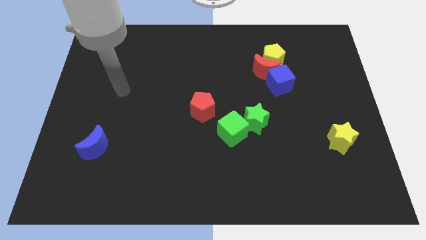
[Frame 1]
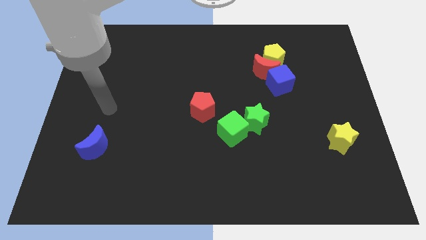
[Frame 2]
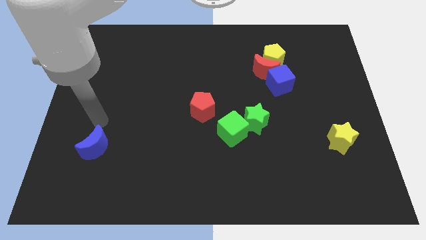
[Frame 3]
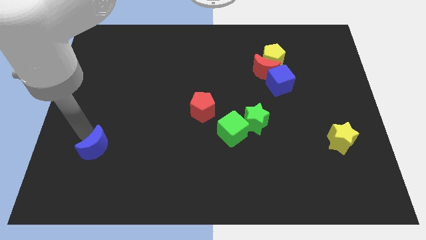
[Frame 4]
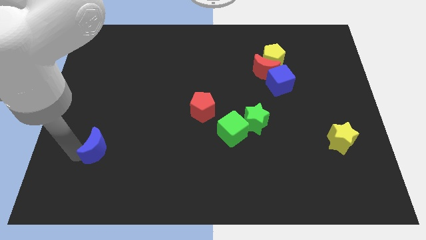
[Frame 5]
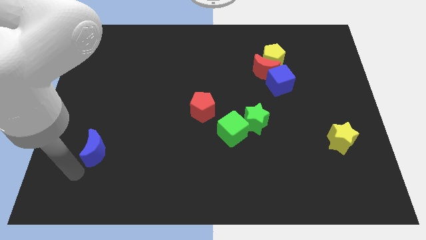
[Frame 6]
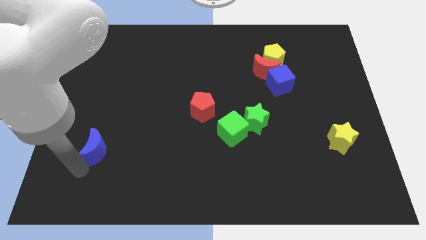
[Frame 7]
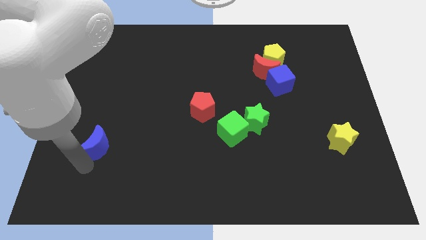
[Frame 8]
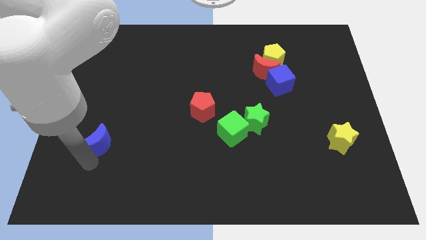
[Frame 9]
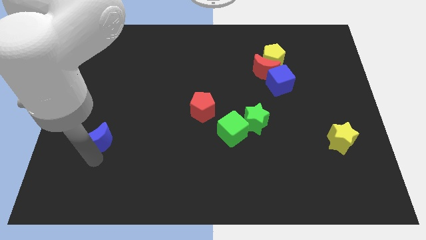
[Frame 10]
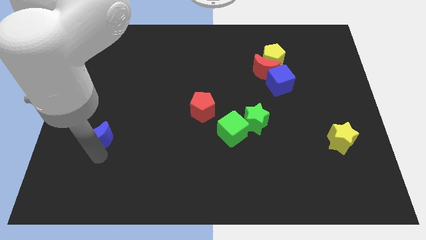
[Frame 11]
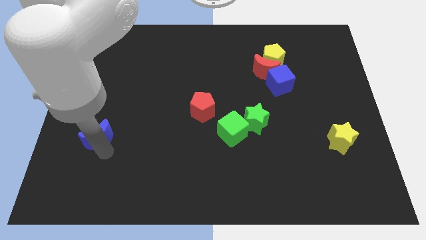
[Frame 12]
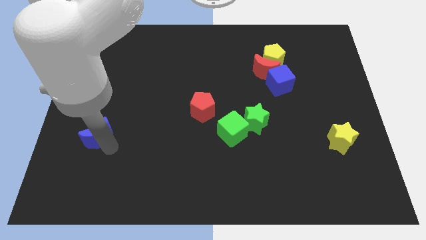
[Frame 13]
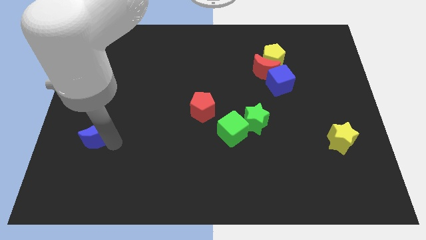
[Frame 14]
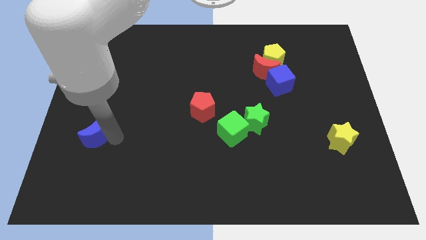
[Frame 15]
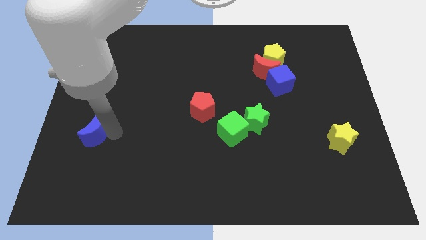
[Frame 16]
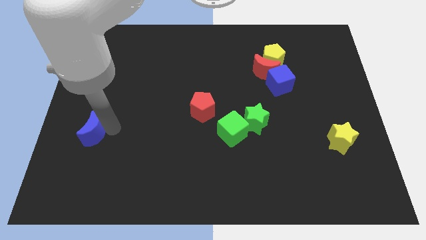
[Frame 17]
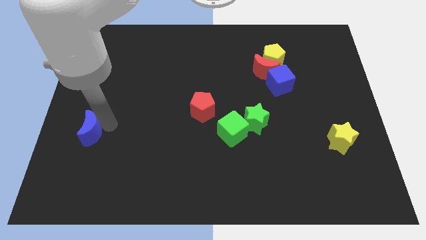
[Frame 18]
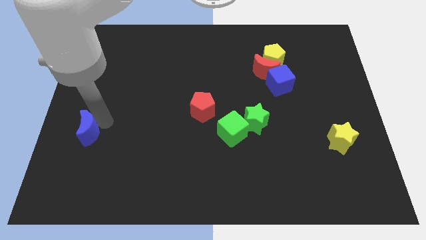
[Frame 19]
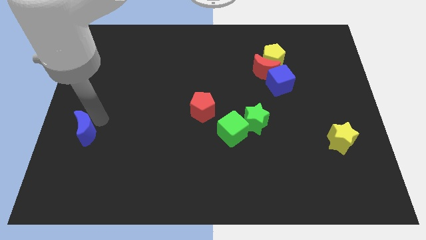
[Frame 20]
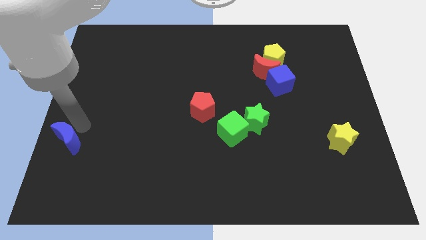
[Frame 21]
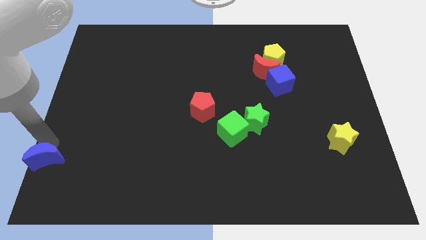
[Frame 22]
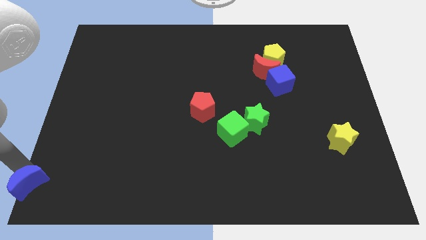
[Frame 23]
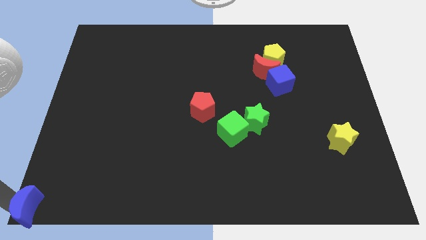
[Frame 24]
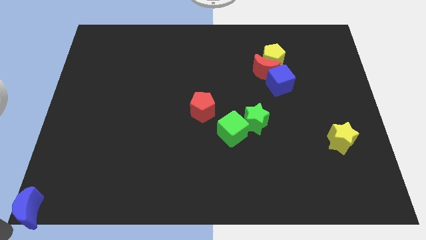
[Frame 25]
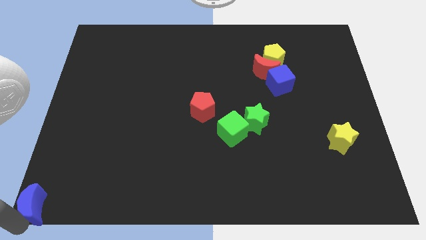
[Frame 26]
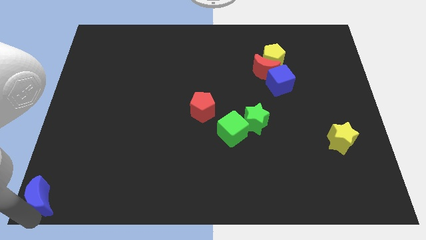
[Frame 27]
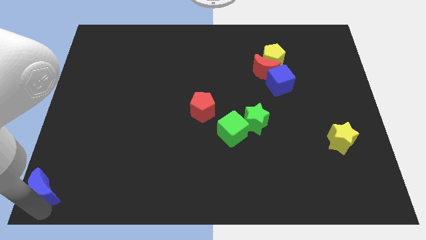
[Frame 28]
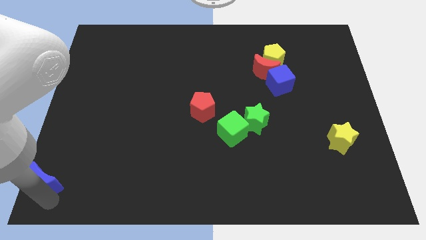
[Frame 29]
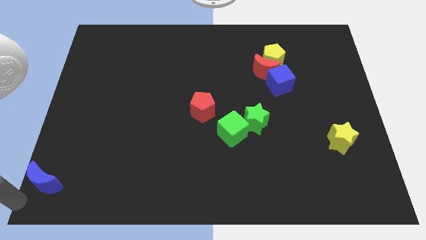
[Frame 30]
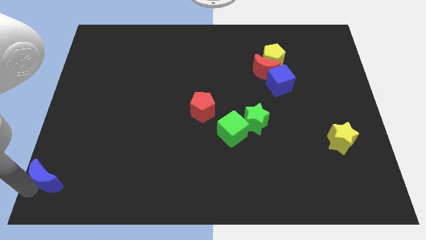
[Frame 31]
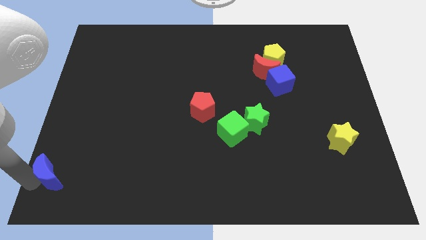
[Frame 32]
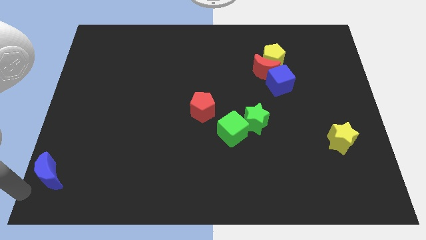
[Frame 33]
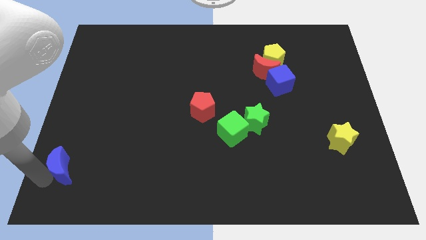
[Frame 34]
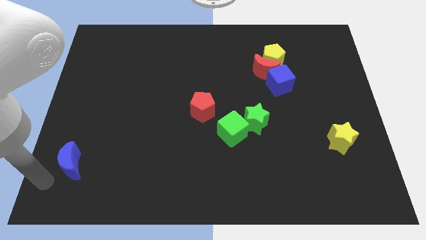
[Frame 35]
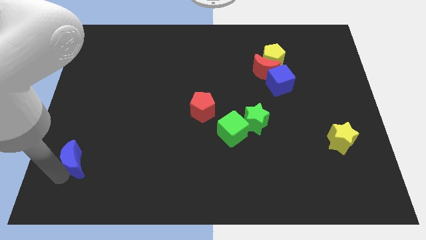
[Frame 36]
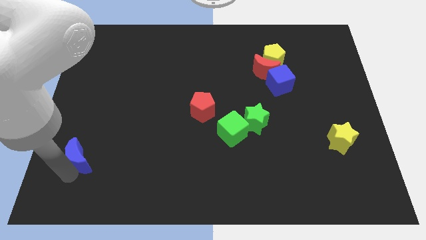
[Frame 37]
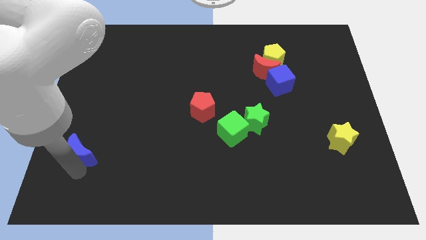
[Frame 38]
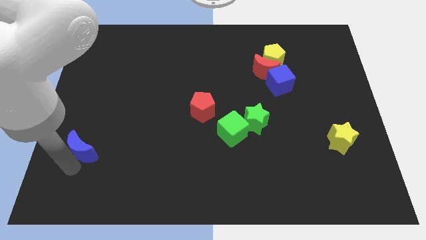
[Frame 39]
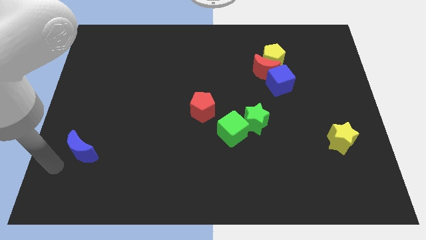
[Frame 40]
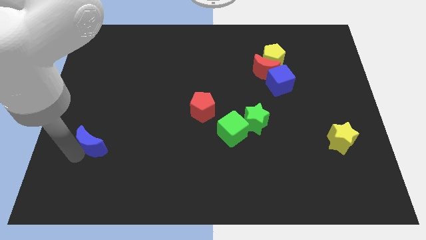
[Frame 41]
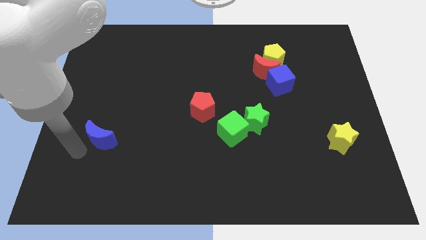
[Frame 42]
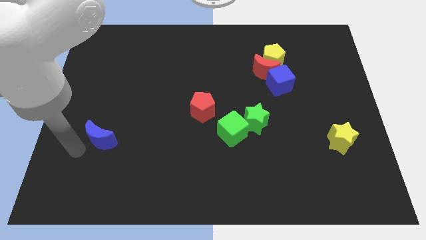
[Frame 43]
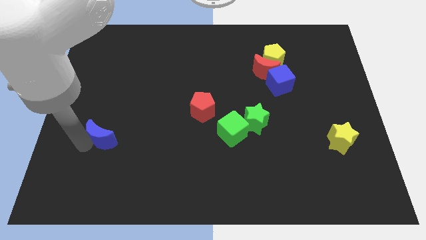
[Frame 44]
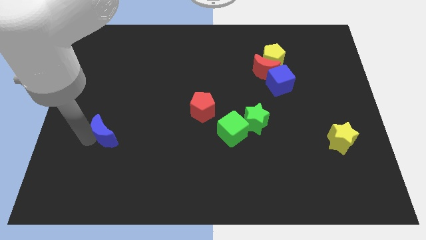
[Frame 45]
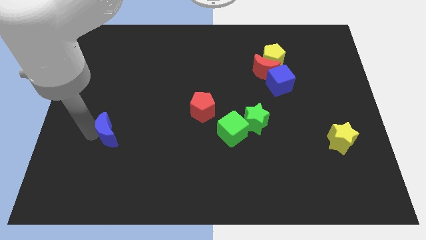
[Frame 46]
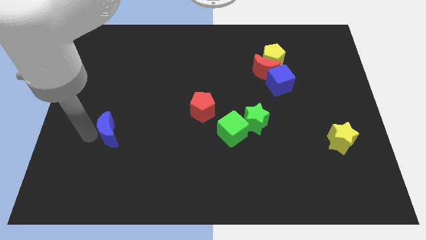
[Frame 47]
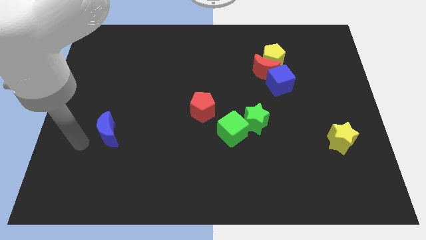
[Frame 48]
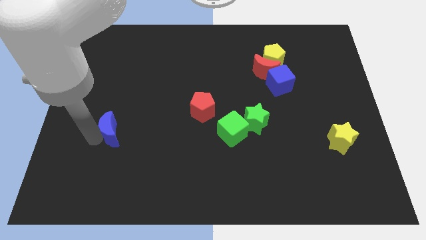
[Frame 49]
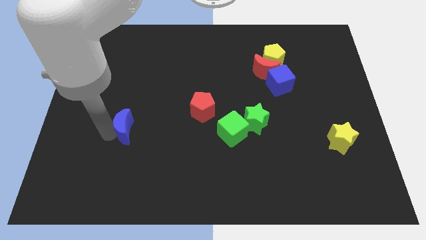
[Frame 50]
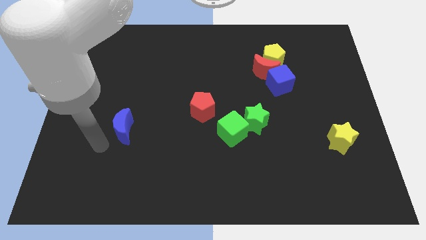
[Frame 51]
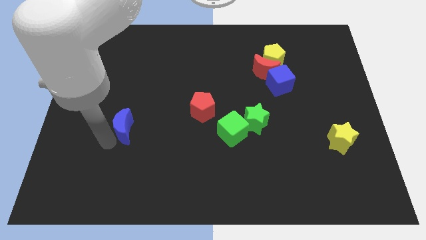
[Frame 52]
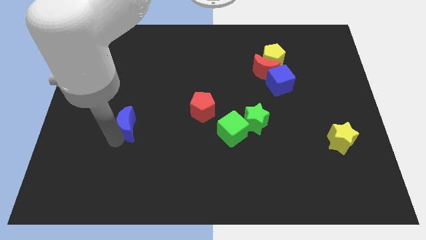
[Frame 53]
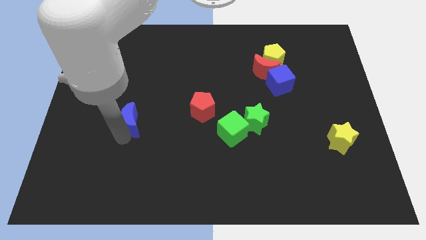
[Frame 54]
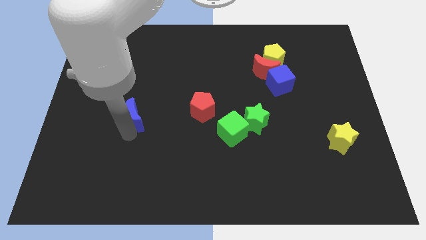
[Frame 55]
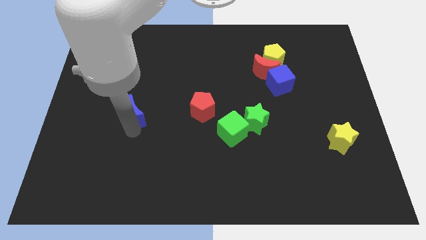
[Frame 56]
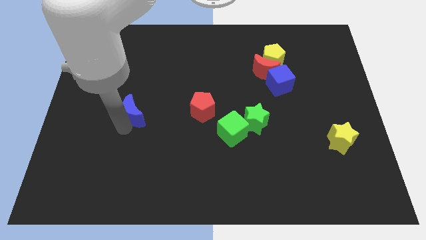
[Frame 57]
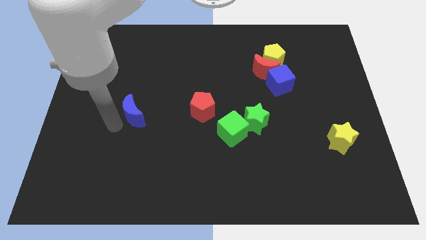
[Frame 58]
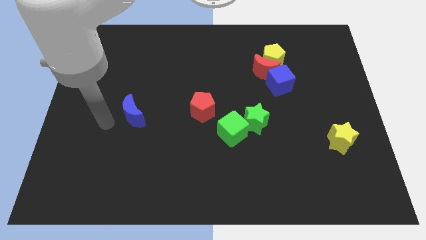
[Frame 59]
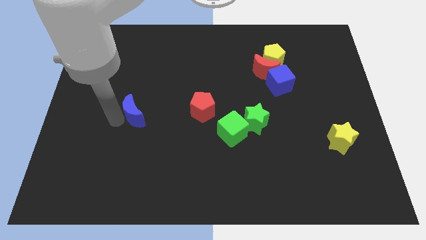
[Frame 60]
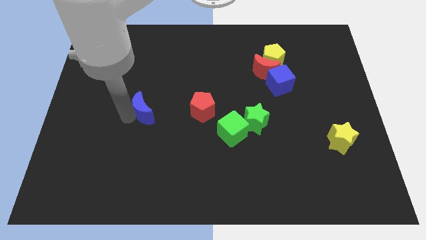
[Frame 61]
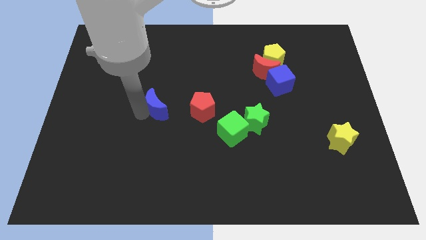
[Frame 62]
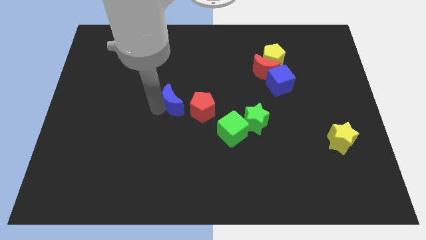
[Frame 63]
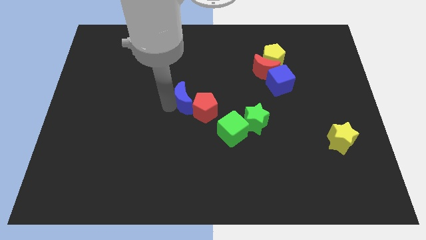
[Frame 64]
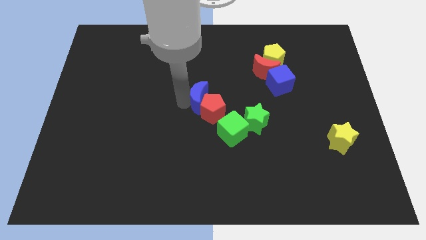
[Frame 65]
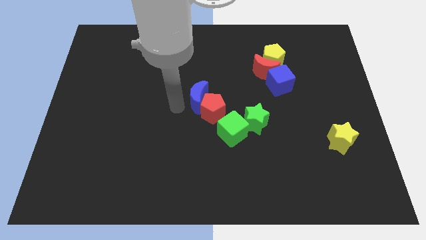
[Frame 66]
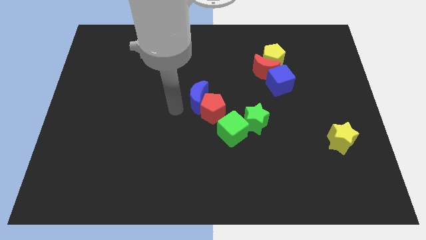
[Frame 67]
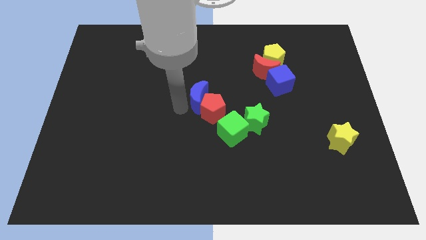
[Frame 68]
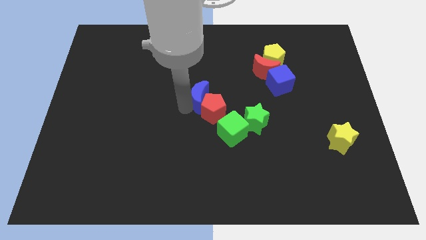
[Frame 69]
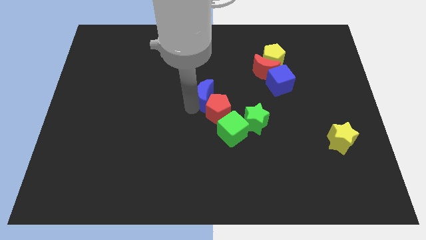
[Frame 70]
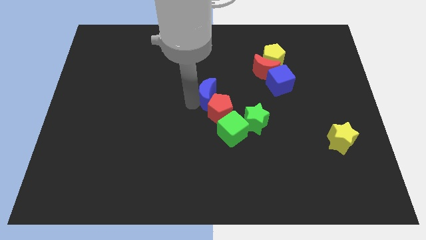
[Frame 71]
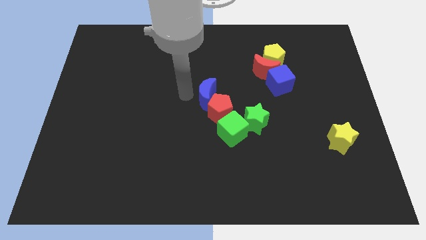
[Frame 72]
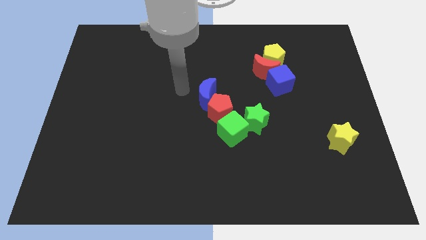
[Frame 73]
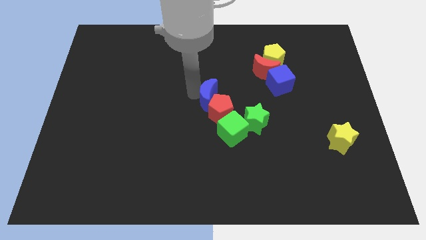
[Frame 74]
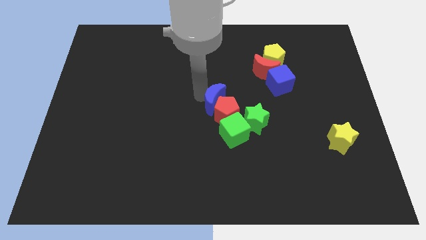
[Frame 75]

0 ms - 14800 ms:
put the blue moon diagonally up and to the left of the green star
